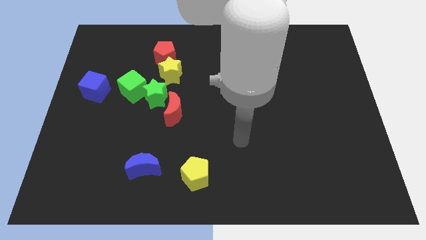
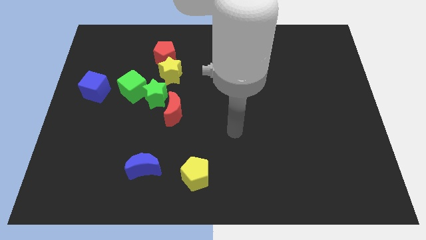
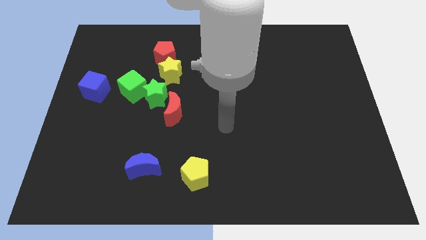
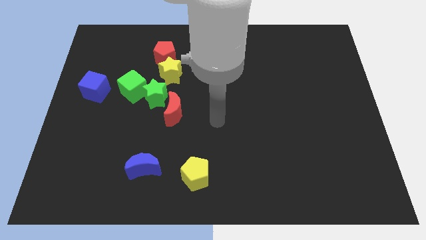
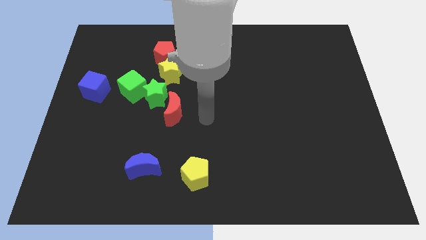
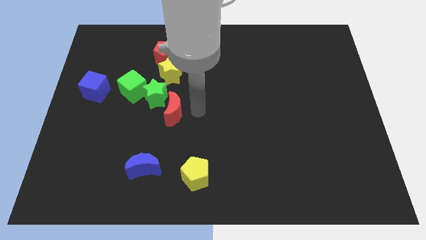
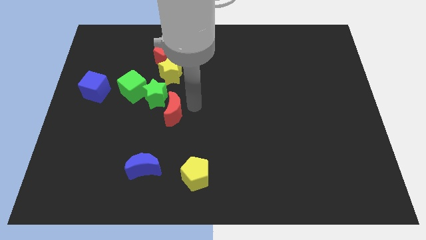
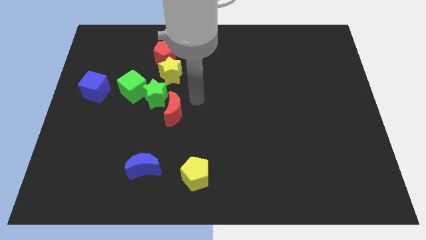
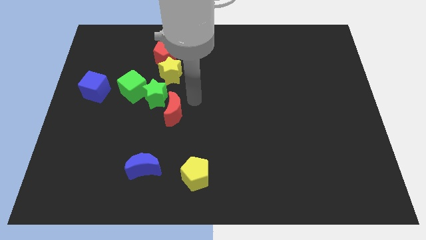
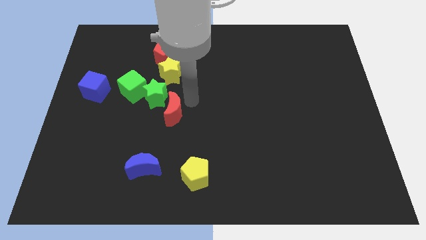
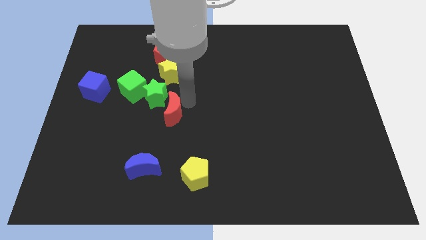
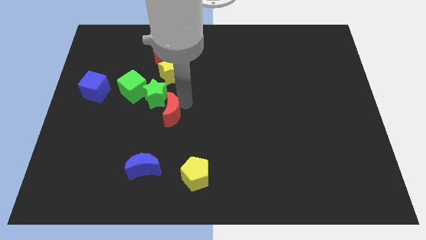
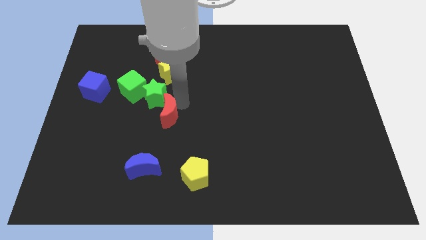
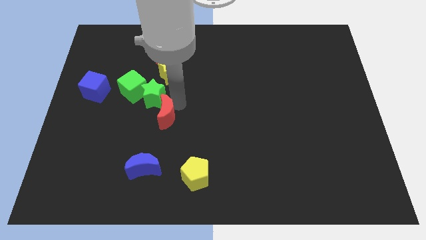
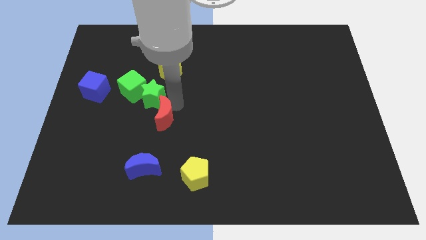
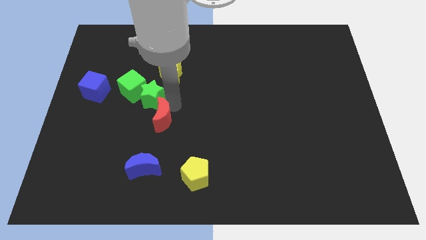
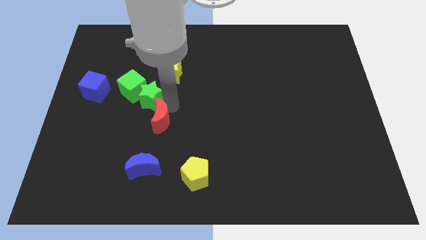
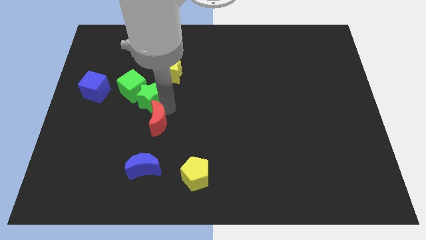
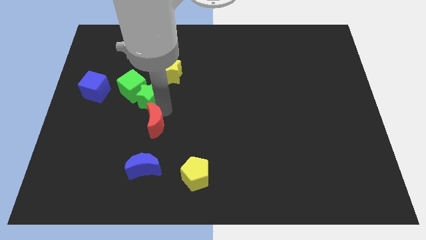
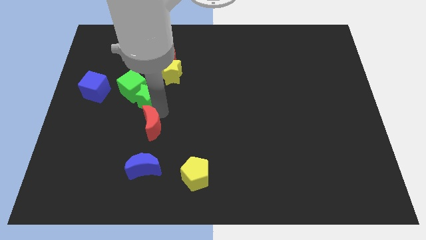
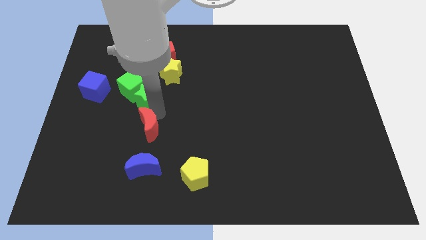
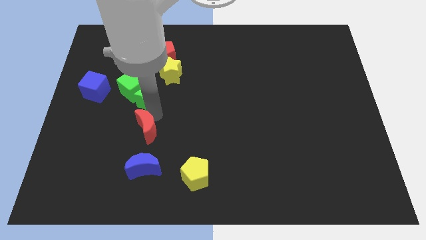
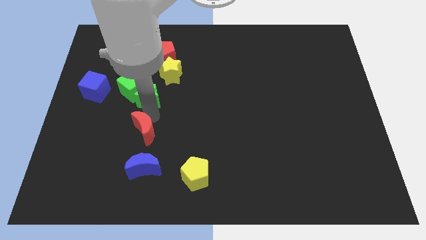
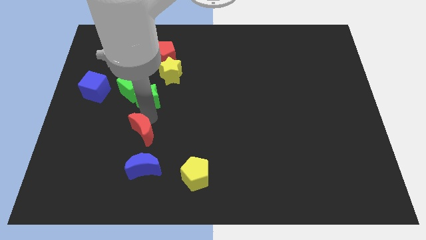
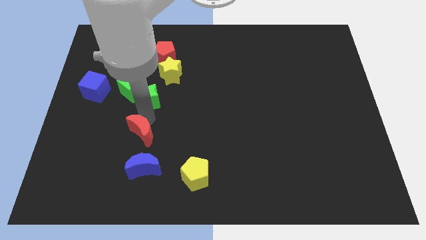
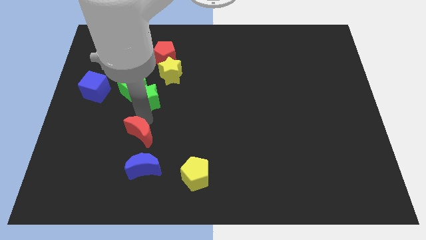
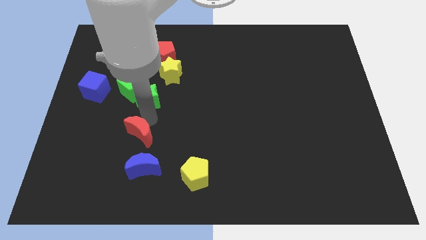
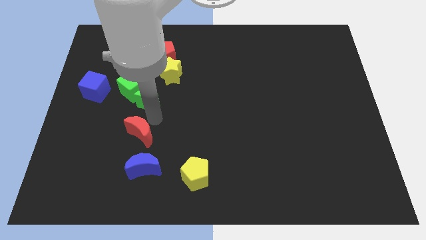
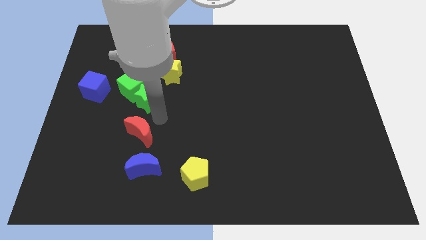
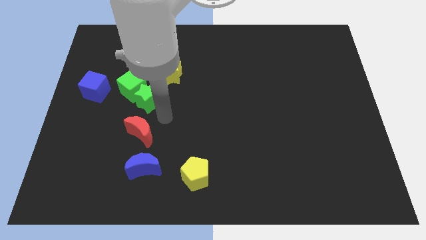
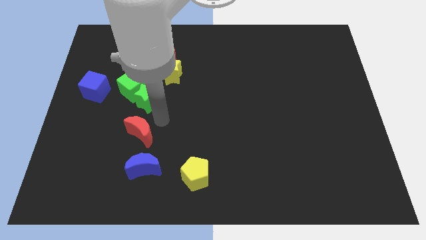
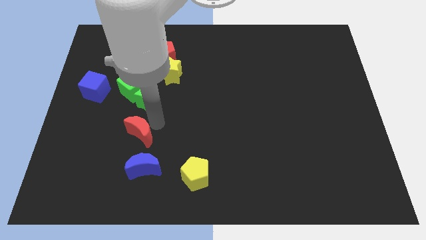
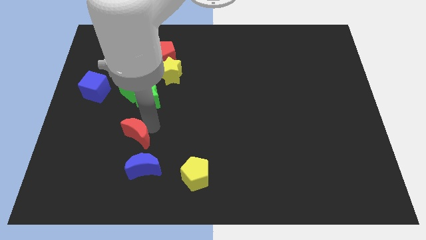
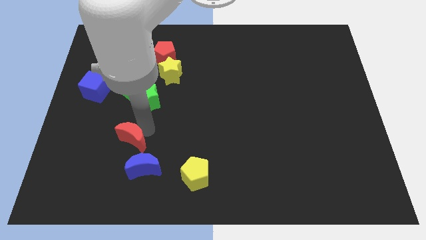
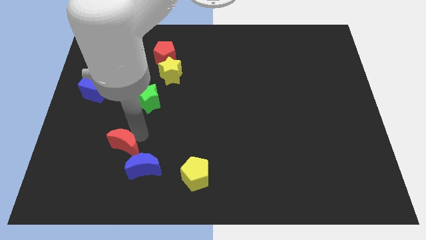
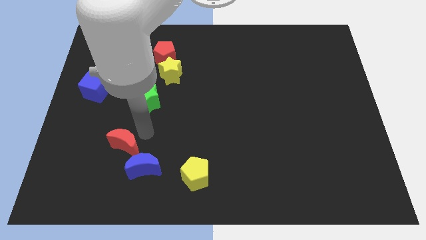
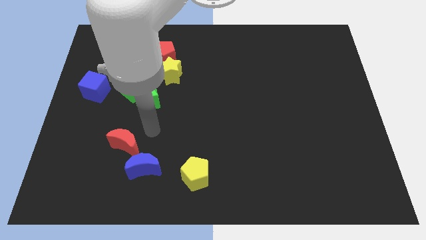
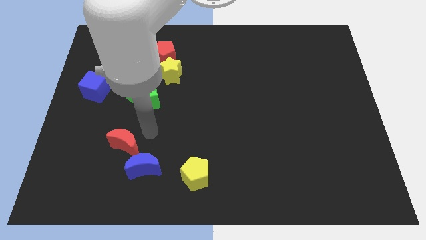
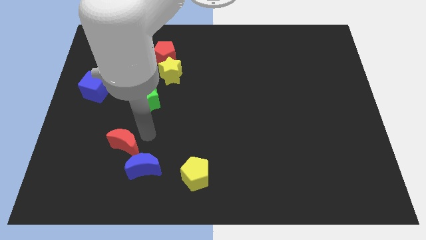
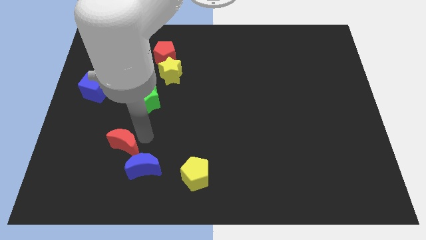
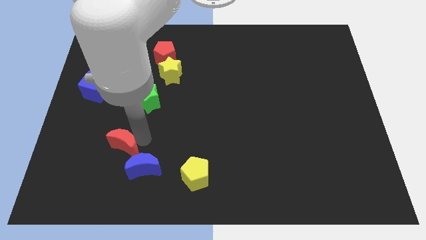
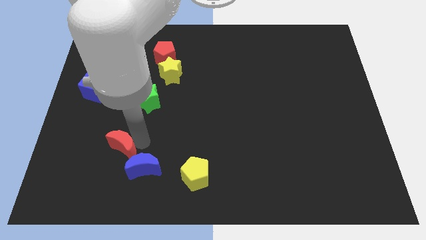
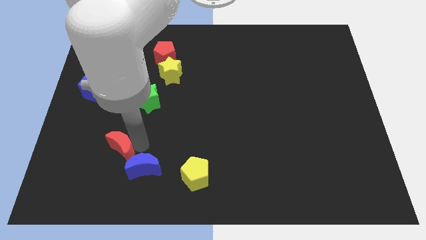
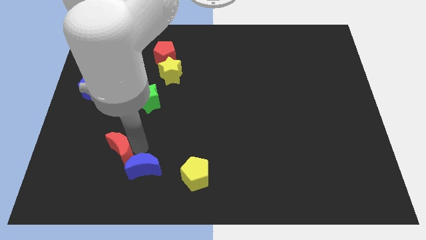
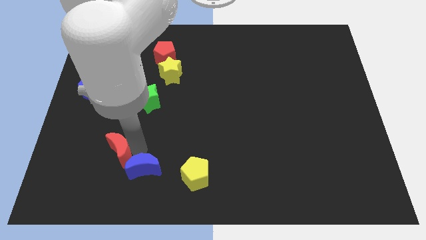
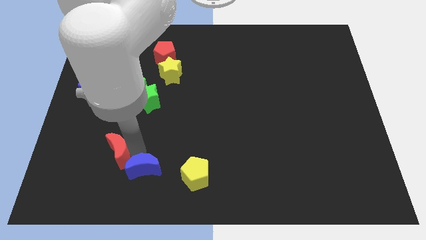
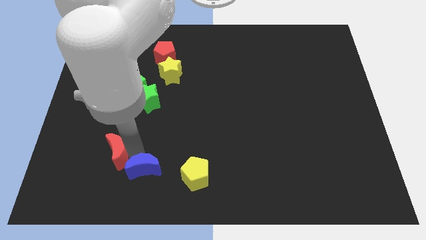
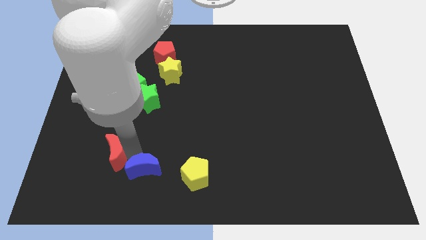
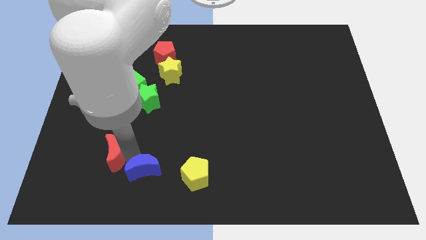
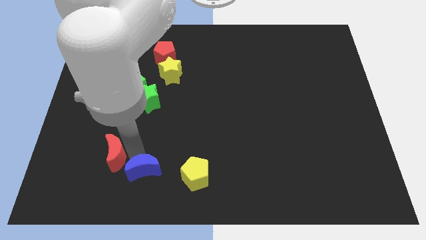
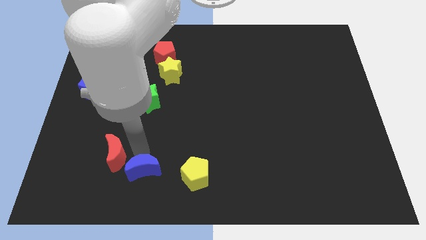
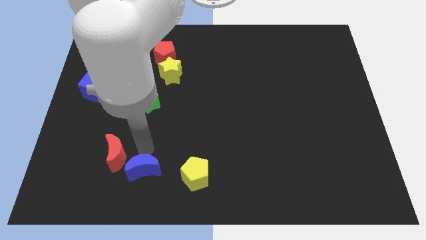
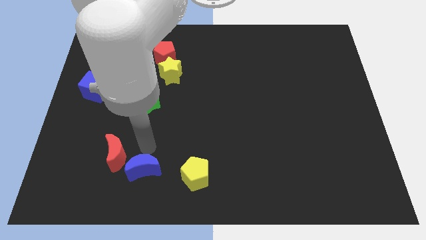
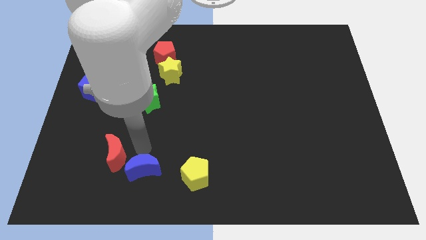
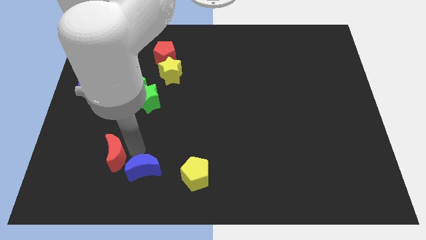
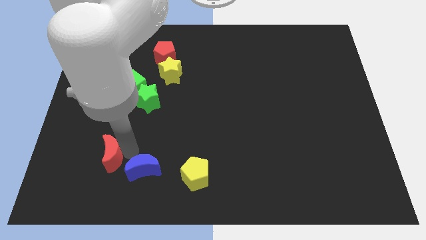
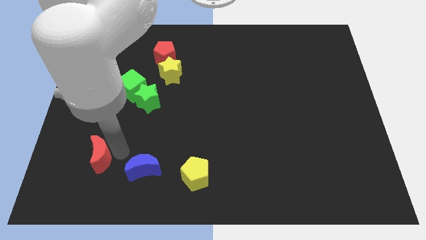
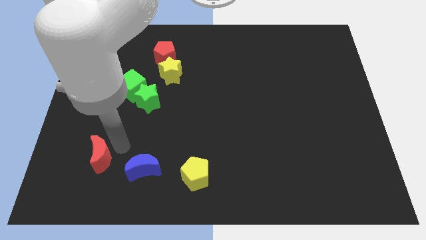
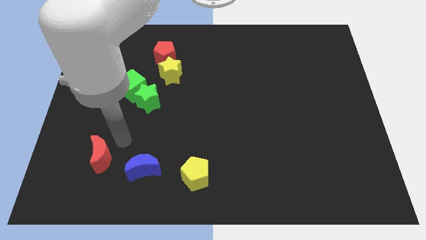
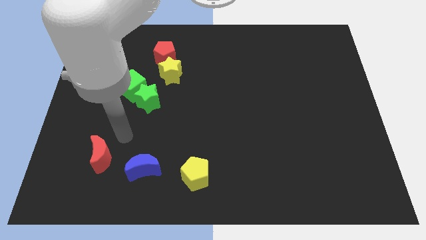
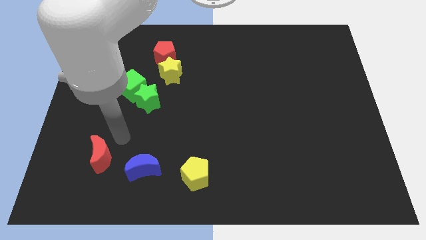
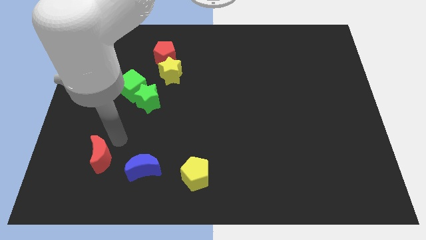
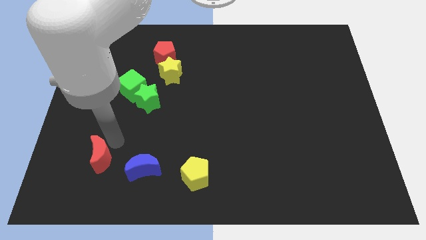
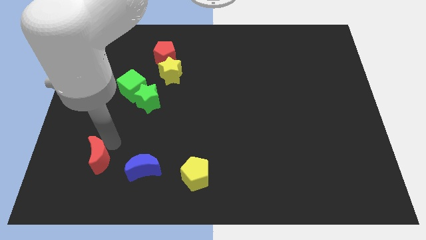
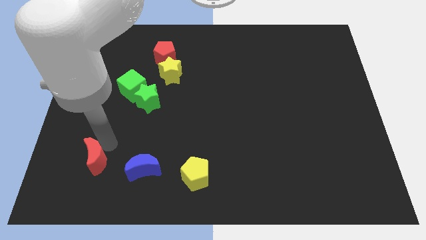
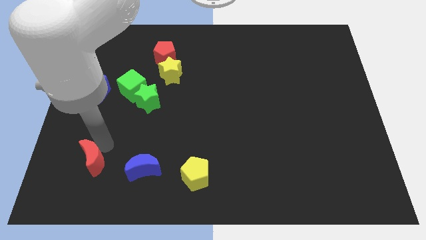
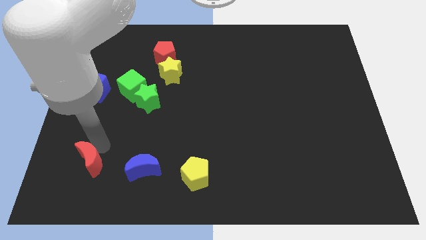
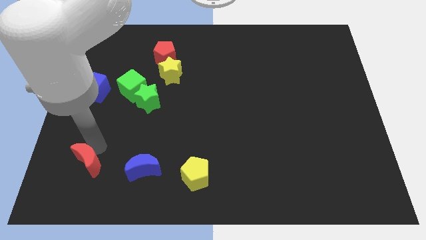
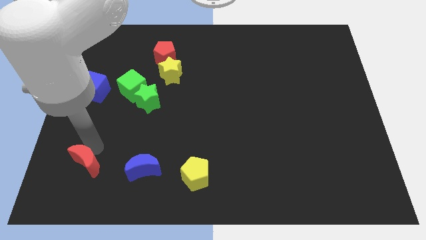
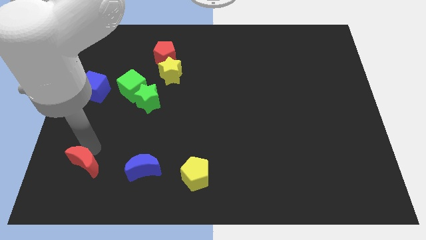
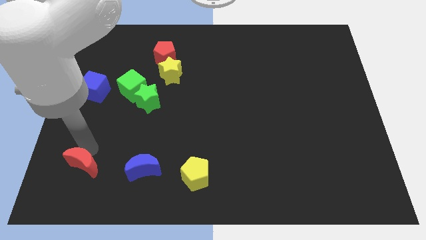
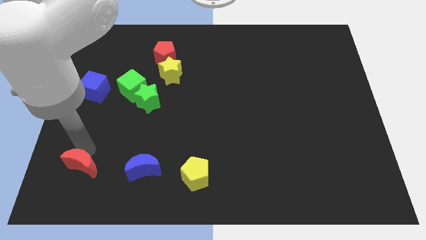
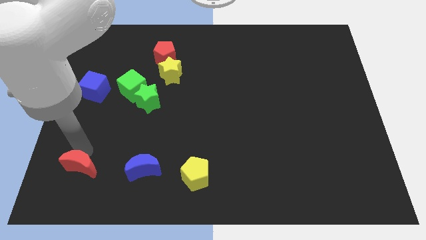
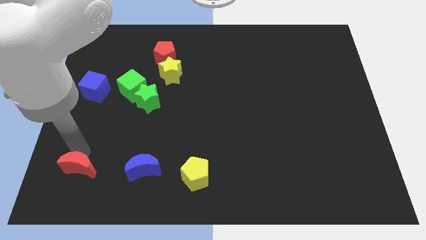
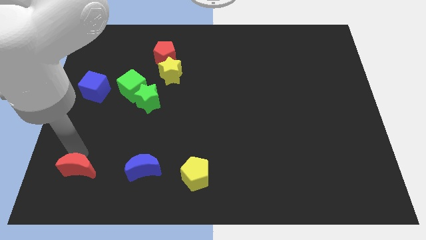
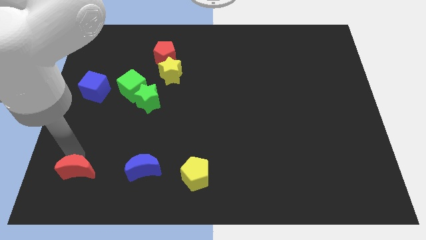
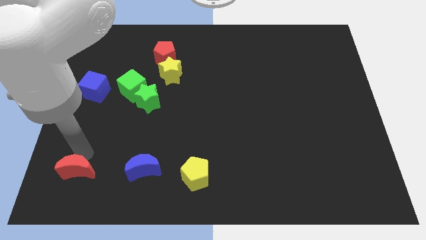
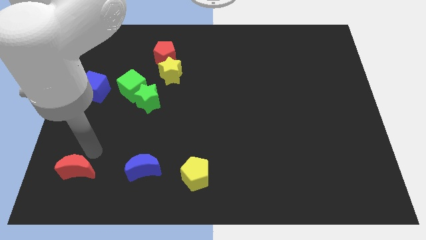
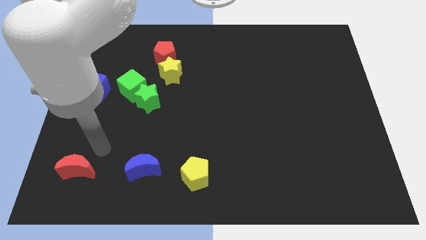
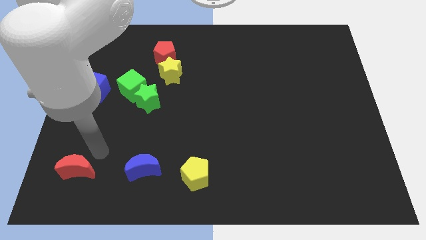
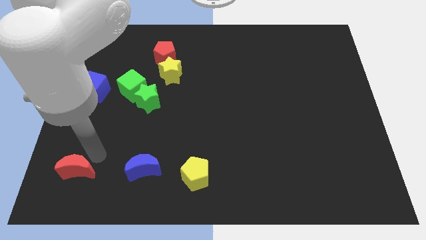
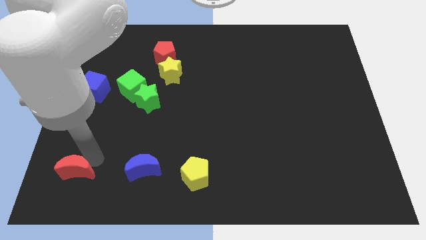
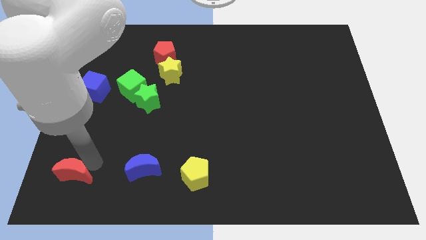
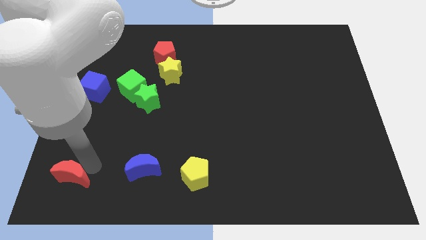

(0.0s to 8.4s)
put the red moon to the bottom left of the board
